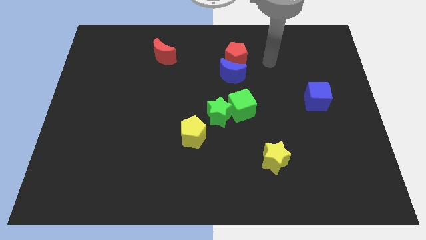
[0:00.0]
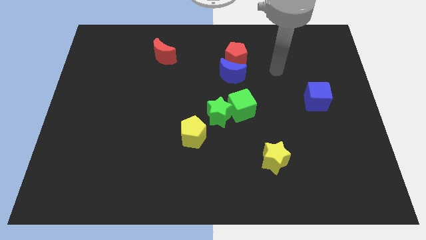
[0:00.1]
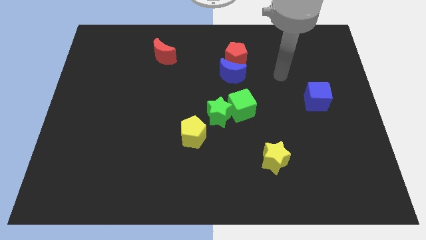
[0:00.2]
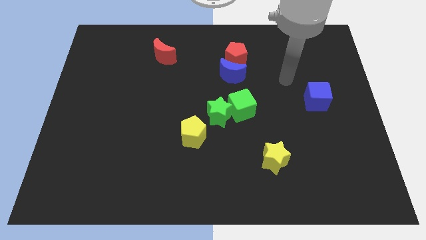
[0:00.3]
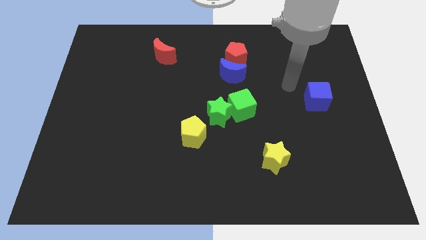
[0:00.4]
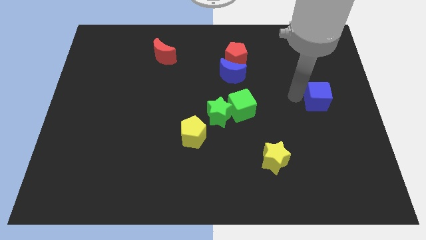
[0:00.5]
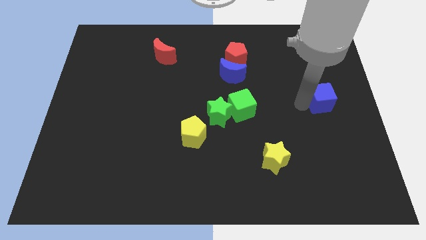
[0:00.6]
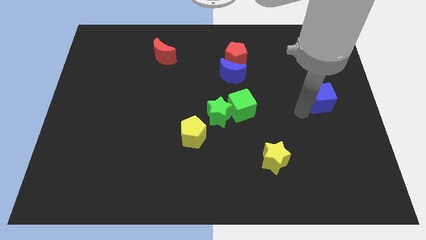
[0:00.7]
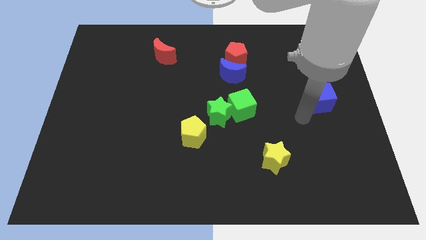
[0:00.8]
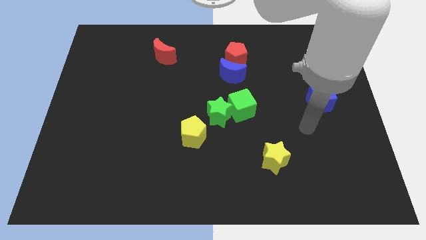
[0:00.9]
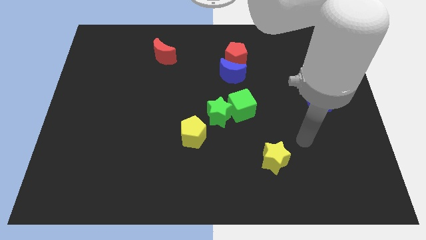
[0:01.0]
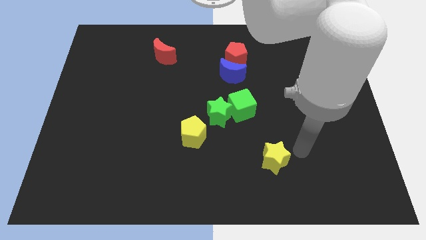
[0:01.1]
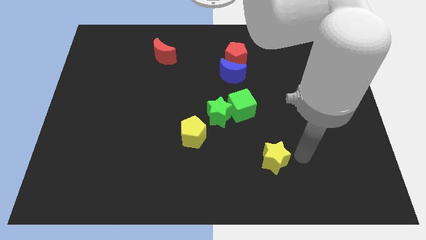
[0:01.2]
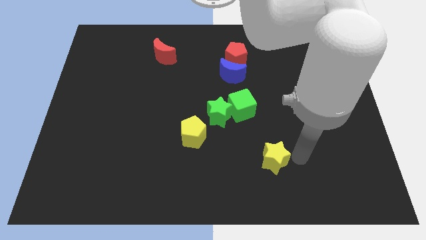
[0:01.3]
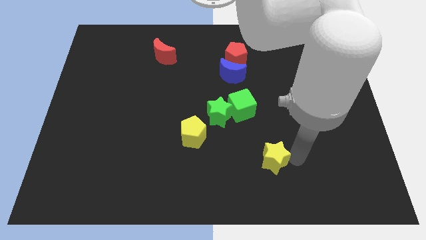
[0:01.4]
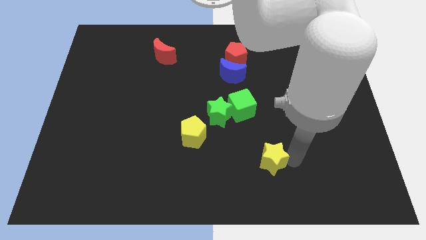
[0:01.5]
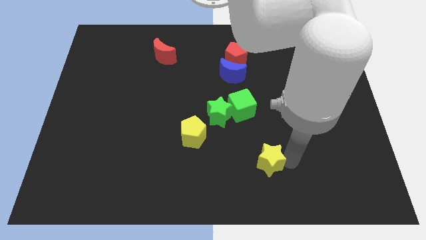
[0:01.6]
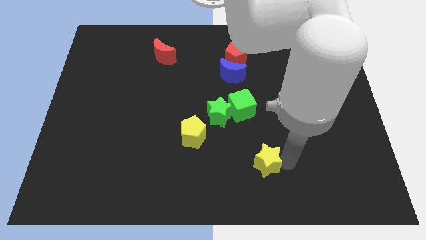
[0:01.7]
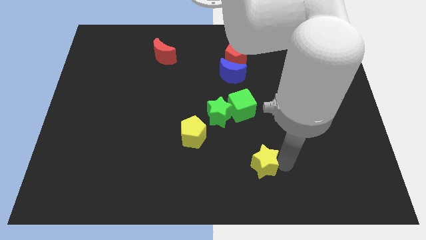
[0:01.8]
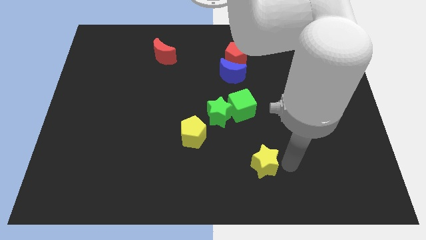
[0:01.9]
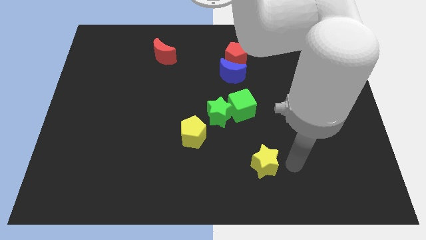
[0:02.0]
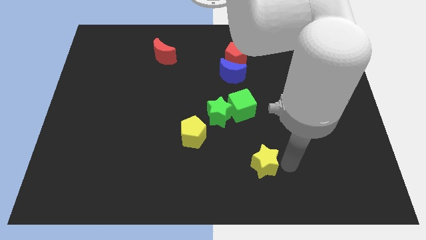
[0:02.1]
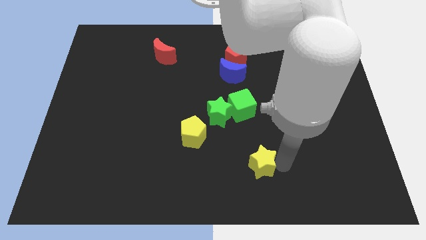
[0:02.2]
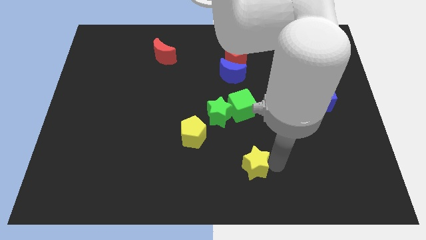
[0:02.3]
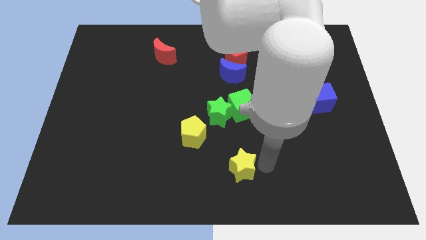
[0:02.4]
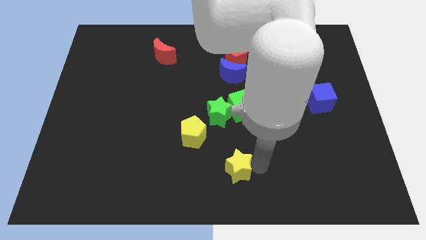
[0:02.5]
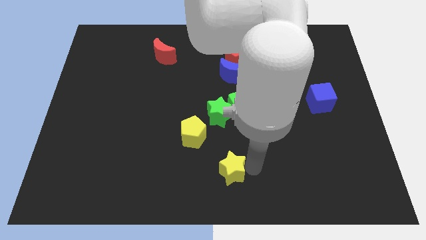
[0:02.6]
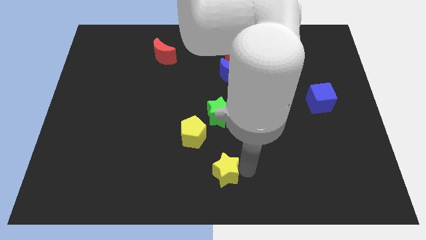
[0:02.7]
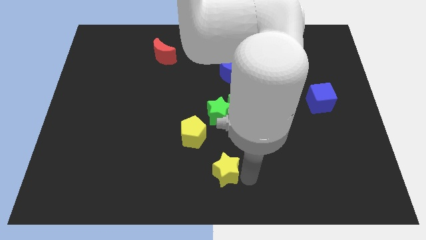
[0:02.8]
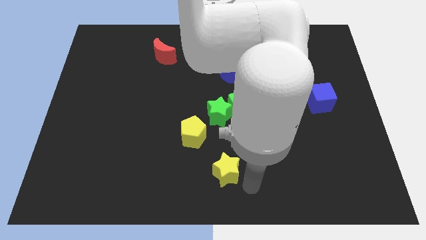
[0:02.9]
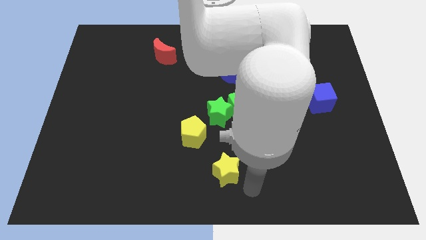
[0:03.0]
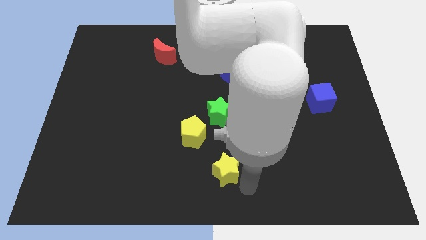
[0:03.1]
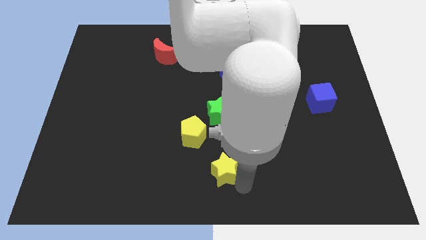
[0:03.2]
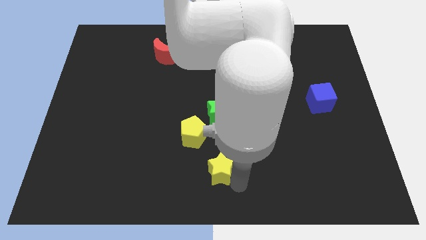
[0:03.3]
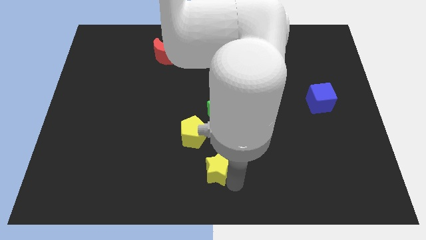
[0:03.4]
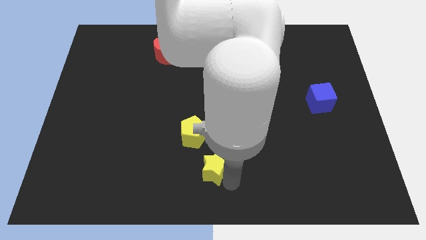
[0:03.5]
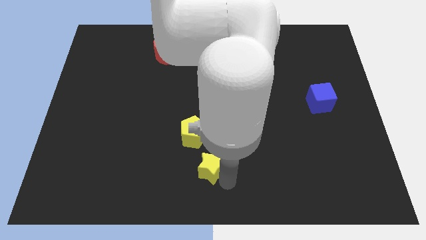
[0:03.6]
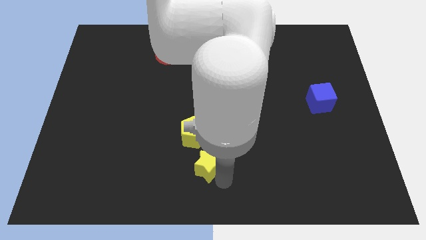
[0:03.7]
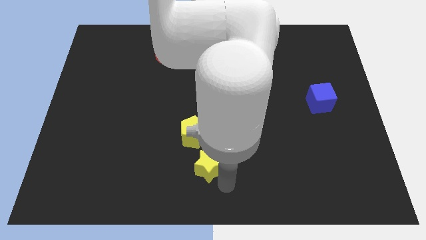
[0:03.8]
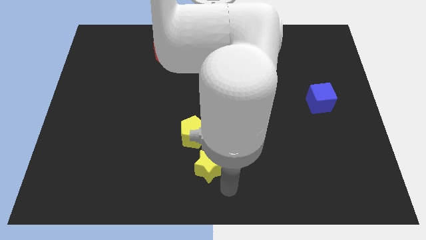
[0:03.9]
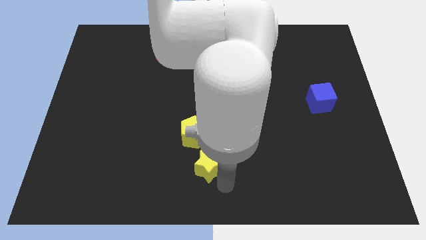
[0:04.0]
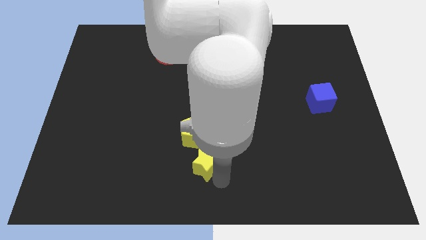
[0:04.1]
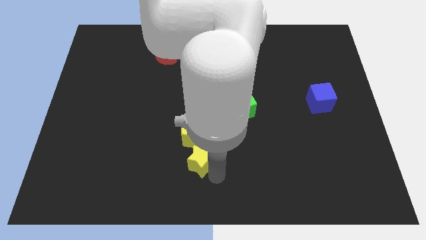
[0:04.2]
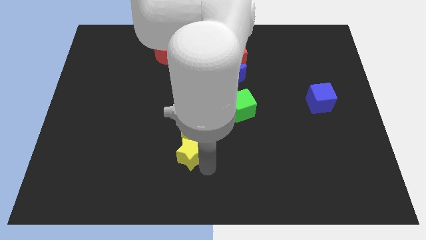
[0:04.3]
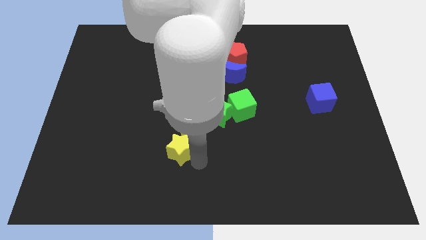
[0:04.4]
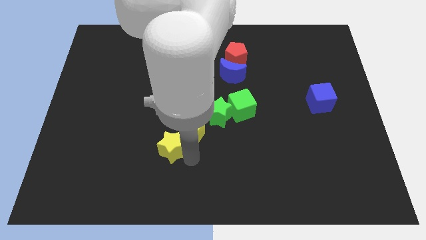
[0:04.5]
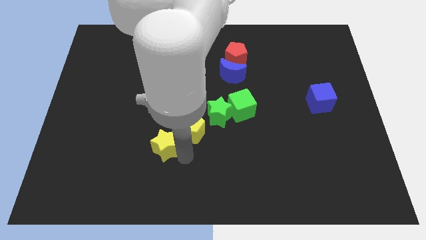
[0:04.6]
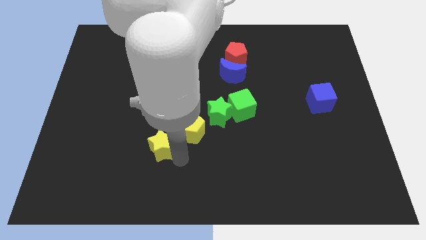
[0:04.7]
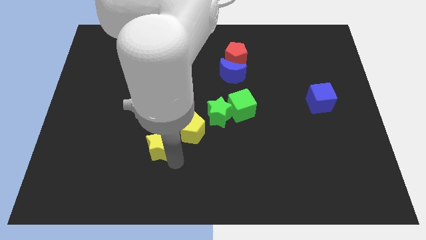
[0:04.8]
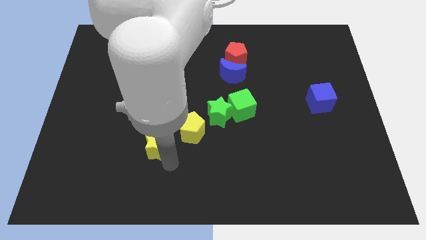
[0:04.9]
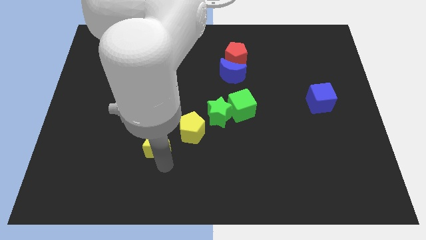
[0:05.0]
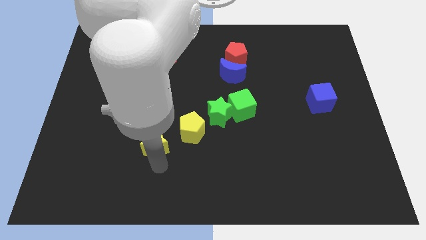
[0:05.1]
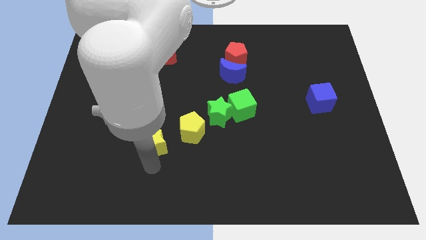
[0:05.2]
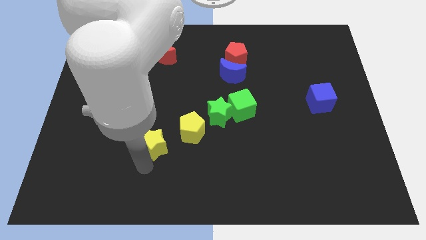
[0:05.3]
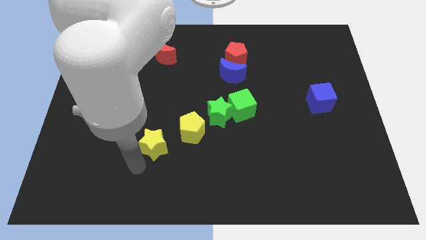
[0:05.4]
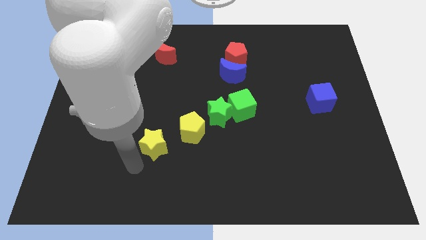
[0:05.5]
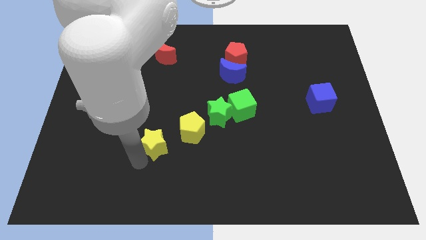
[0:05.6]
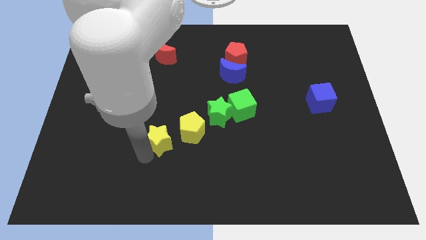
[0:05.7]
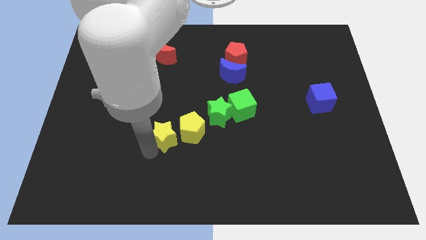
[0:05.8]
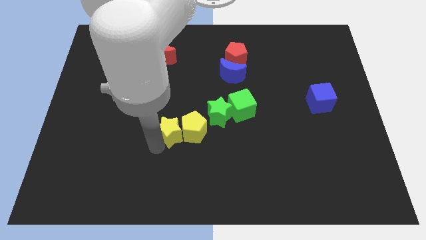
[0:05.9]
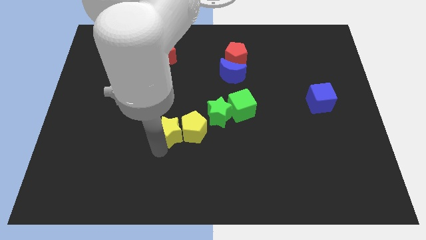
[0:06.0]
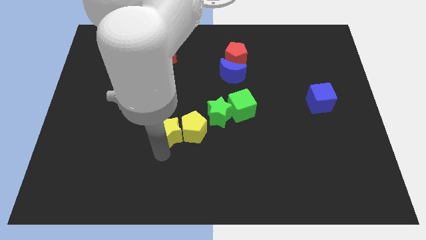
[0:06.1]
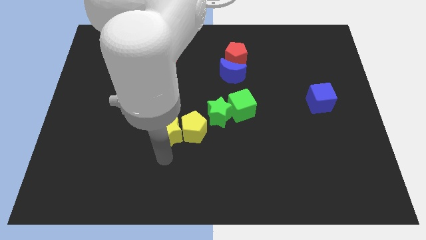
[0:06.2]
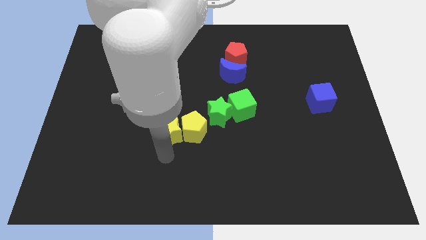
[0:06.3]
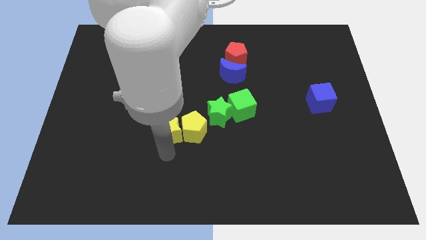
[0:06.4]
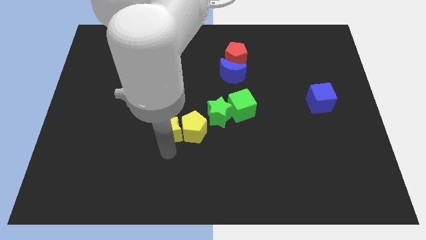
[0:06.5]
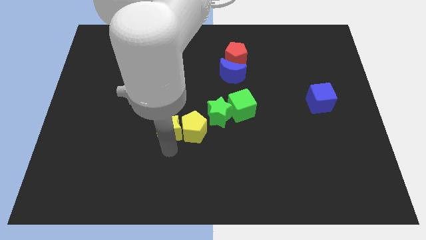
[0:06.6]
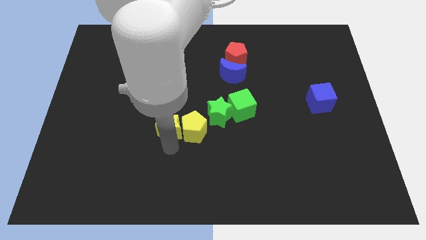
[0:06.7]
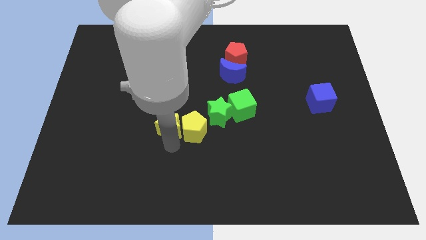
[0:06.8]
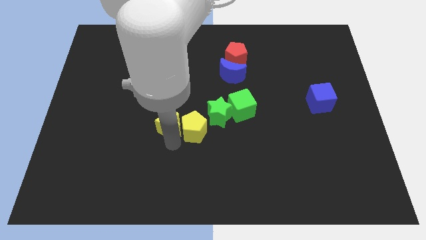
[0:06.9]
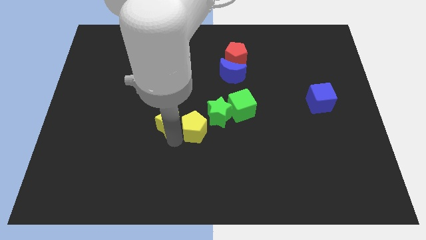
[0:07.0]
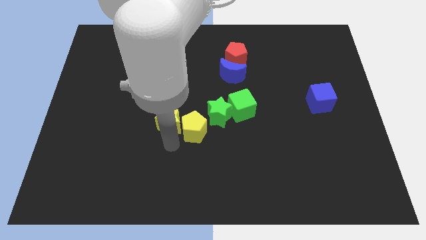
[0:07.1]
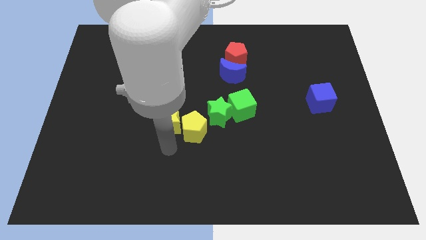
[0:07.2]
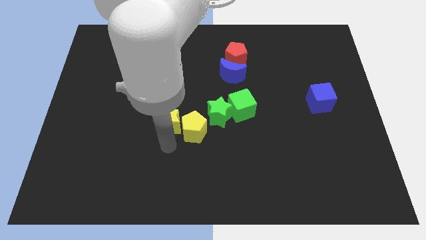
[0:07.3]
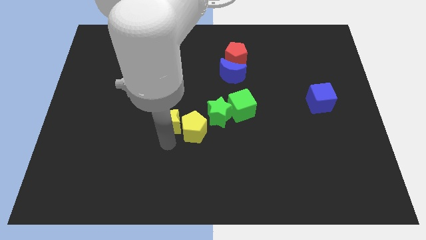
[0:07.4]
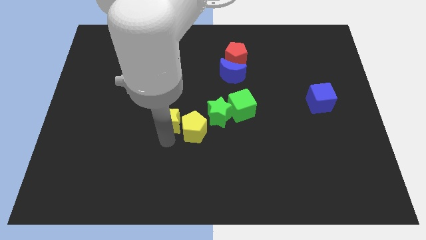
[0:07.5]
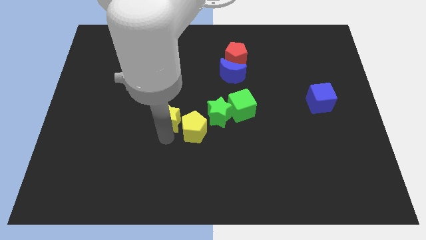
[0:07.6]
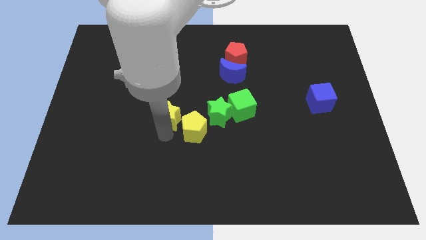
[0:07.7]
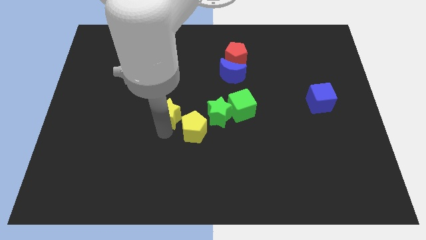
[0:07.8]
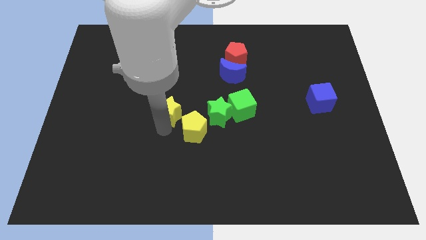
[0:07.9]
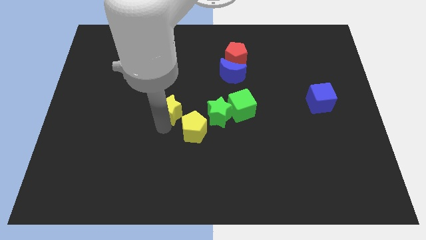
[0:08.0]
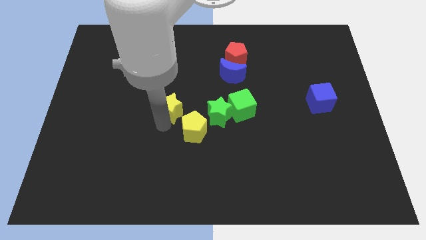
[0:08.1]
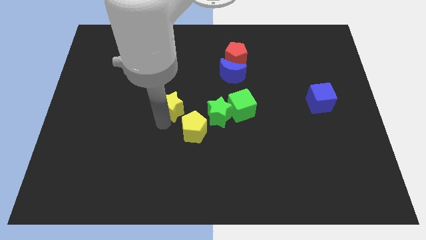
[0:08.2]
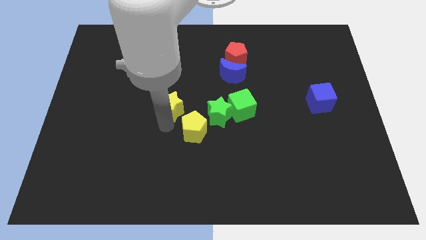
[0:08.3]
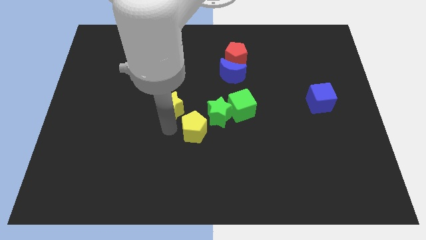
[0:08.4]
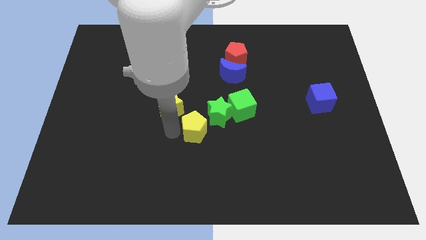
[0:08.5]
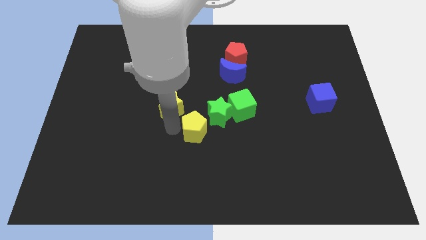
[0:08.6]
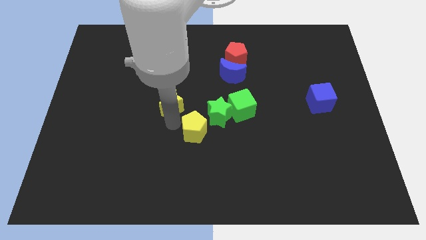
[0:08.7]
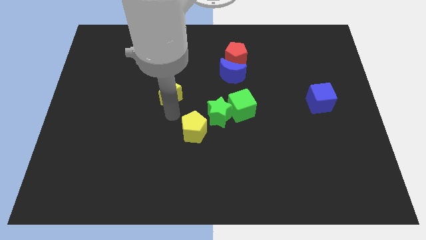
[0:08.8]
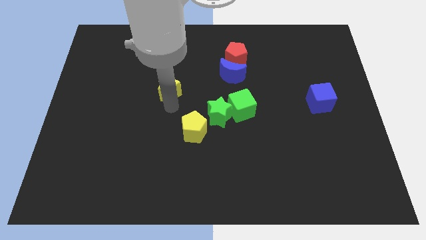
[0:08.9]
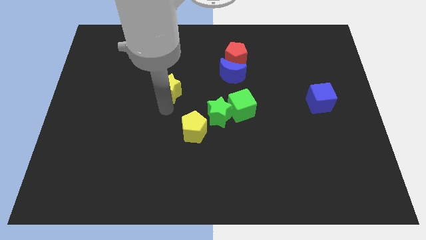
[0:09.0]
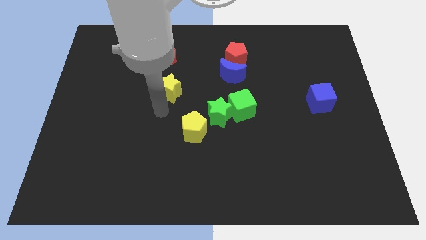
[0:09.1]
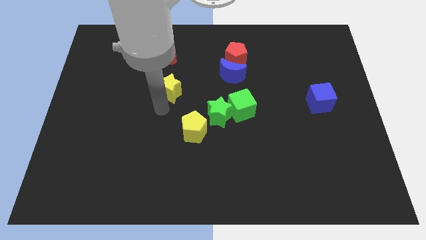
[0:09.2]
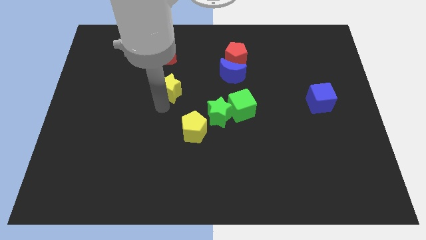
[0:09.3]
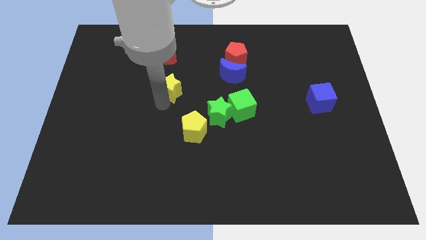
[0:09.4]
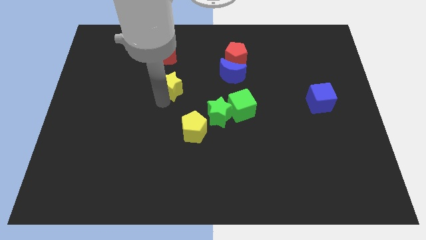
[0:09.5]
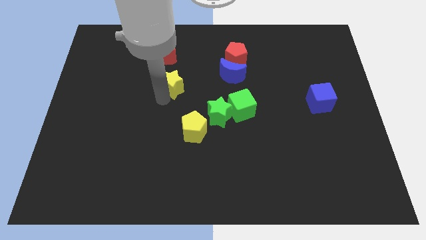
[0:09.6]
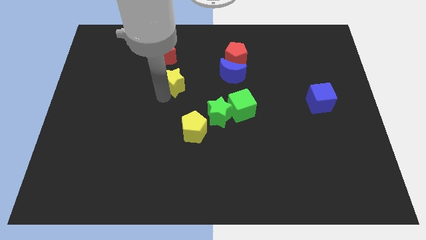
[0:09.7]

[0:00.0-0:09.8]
put the yellow star diagonally down and to the right of the red moon
